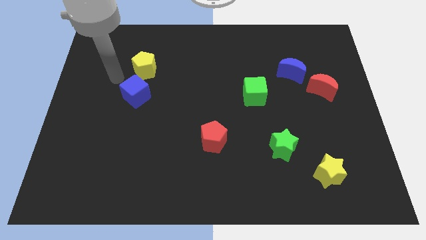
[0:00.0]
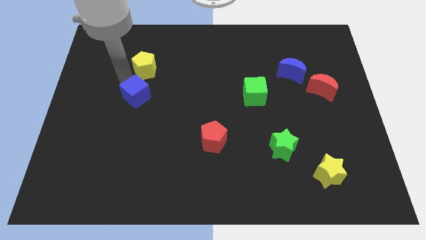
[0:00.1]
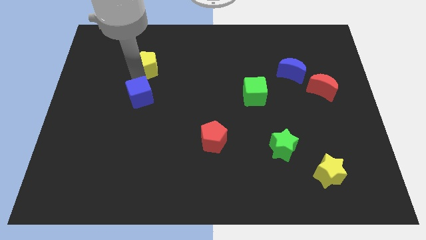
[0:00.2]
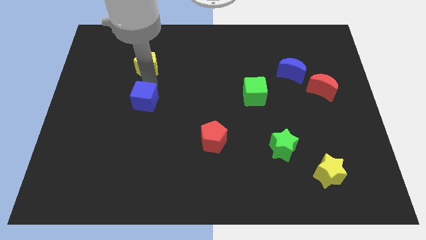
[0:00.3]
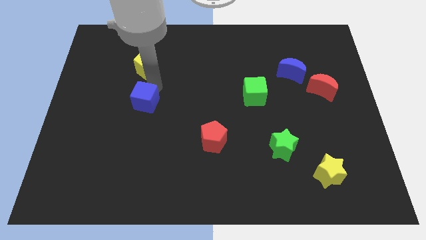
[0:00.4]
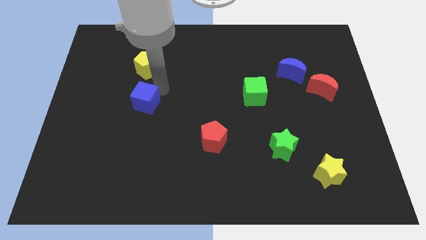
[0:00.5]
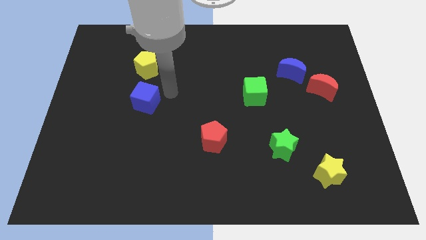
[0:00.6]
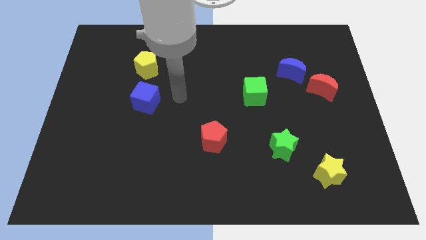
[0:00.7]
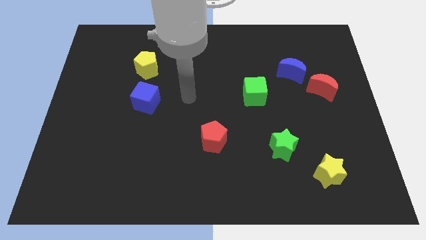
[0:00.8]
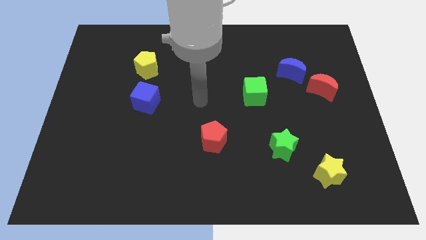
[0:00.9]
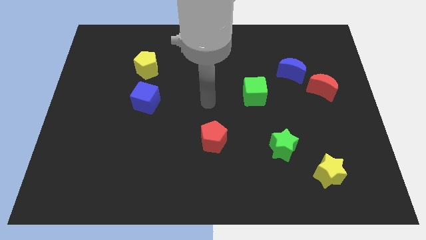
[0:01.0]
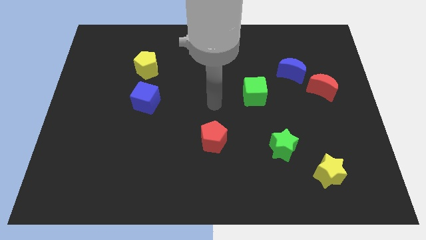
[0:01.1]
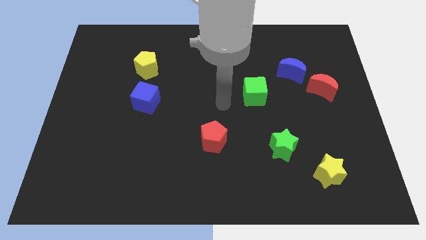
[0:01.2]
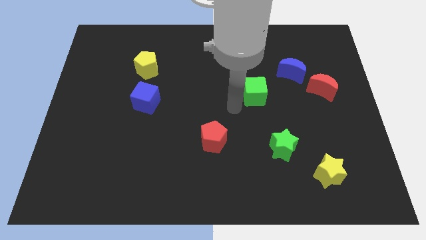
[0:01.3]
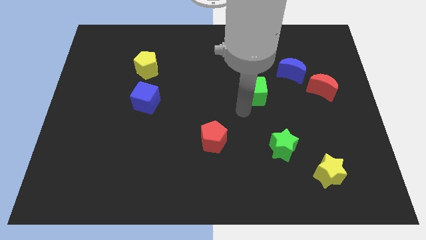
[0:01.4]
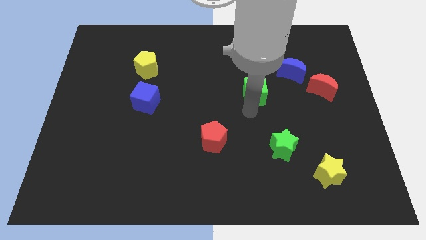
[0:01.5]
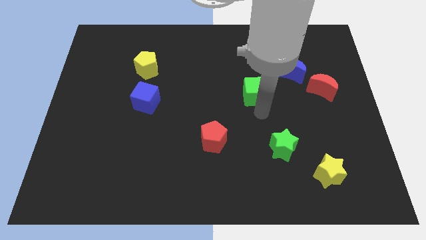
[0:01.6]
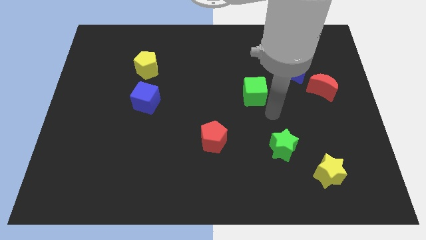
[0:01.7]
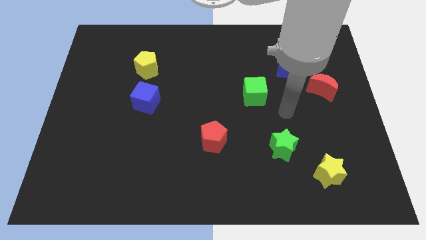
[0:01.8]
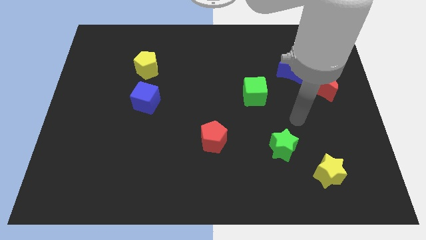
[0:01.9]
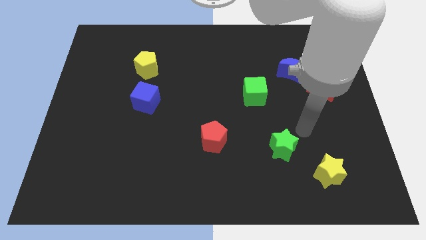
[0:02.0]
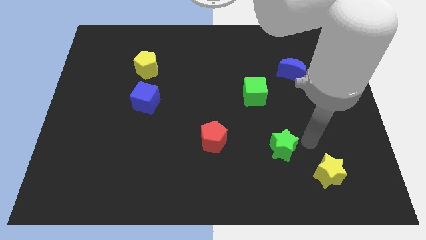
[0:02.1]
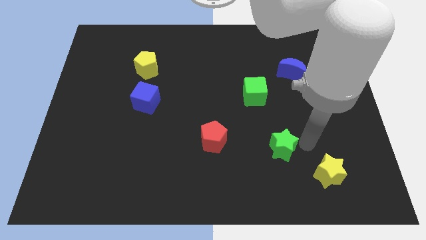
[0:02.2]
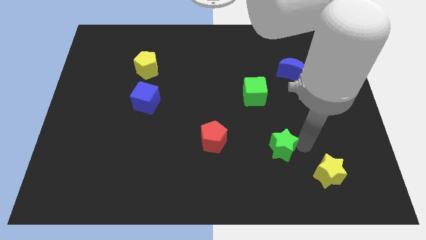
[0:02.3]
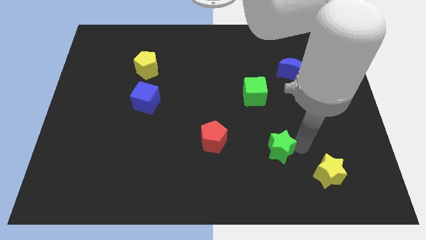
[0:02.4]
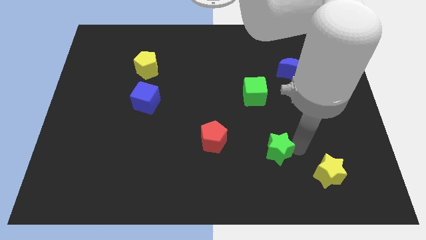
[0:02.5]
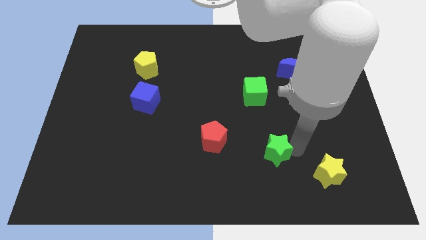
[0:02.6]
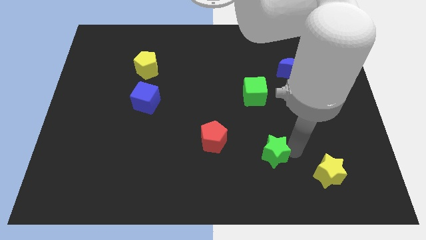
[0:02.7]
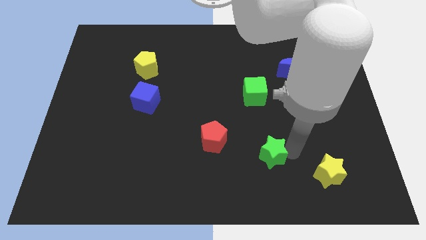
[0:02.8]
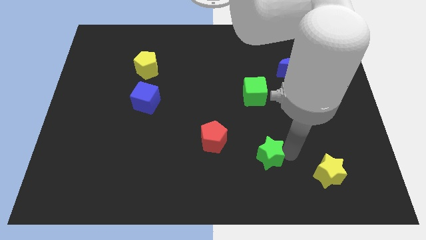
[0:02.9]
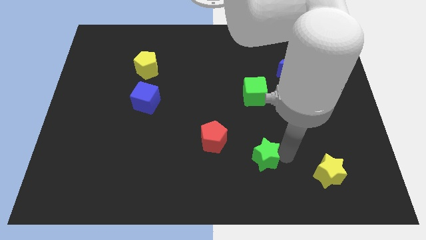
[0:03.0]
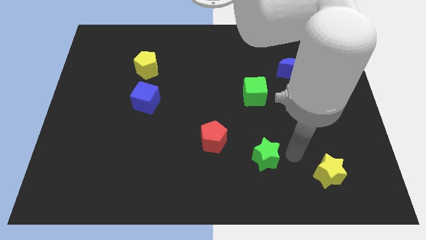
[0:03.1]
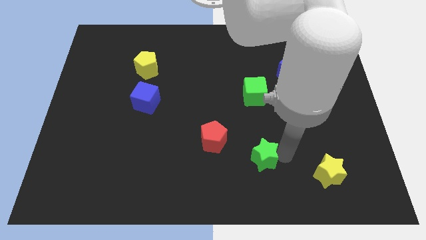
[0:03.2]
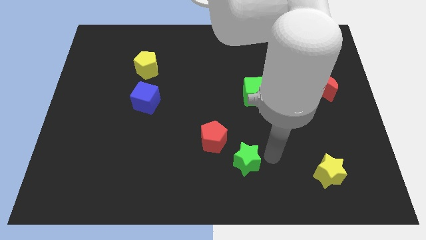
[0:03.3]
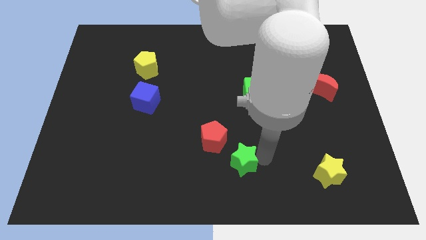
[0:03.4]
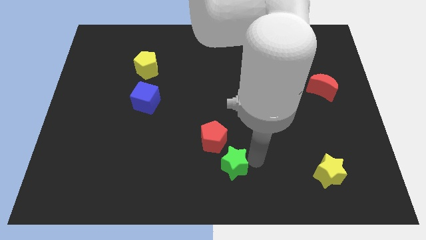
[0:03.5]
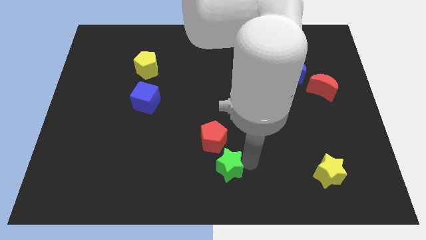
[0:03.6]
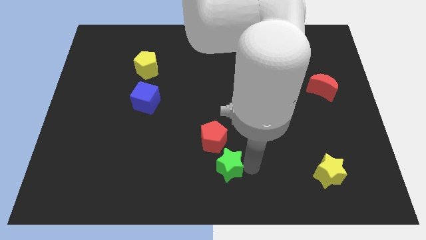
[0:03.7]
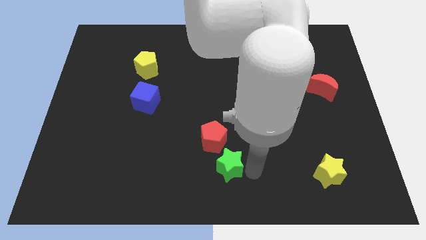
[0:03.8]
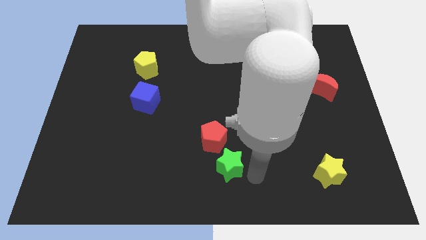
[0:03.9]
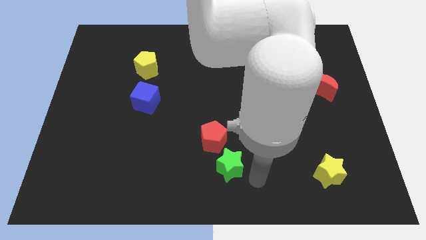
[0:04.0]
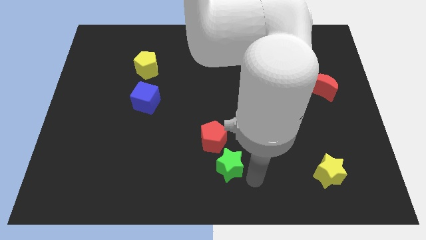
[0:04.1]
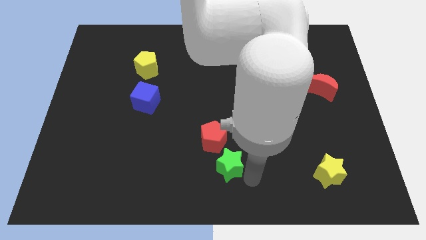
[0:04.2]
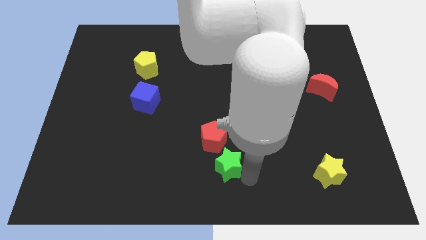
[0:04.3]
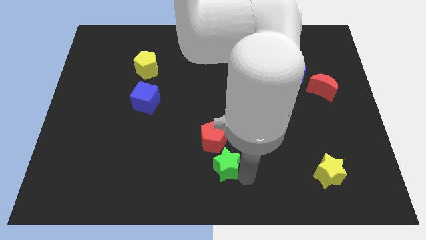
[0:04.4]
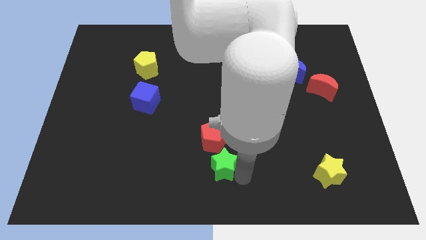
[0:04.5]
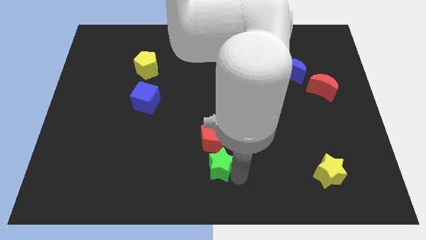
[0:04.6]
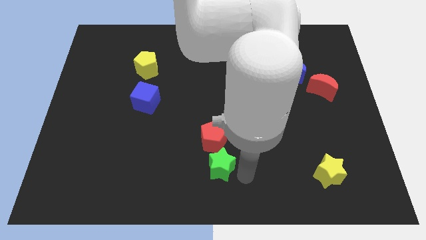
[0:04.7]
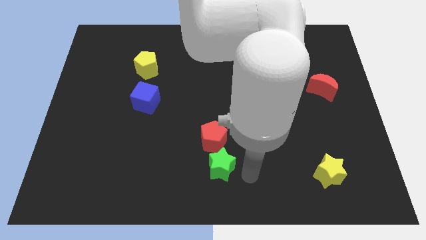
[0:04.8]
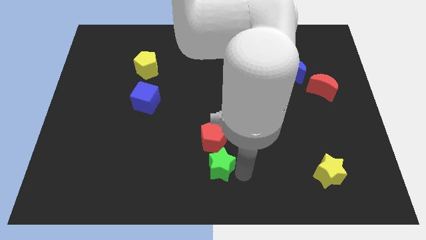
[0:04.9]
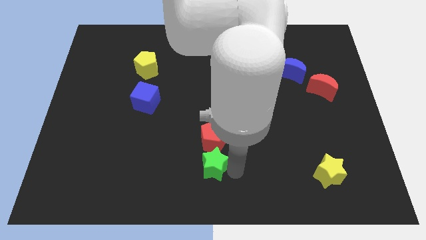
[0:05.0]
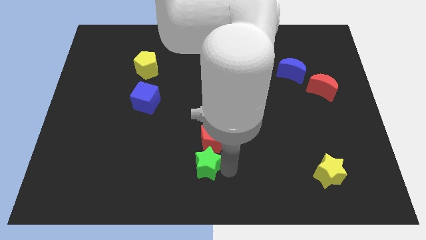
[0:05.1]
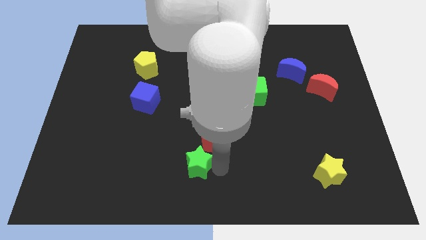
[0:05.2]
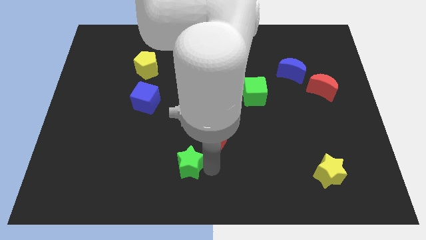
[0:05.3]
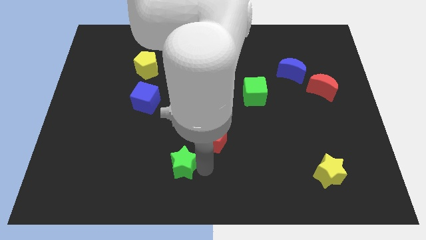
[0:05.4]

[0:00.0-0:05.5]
push the green star left

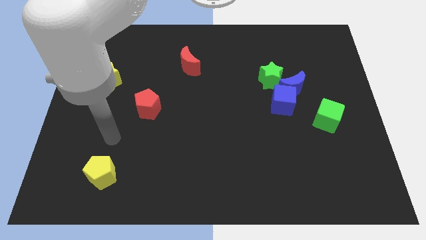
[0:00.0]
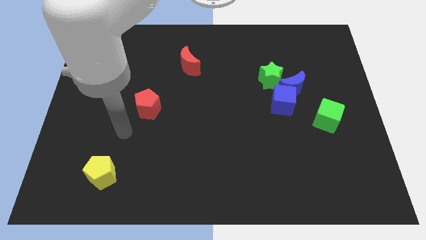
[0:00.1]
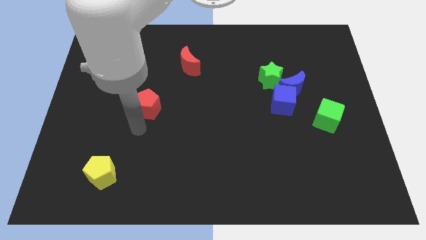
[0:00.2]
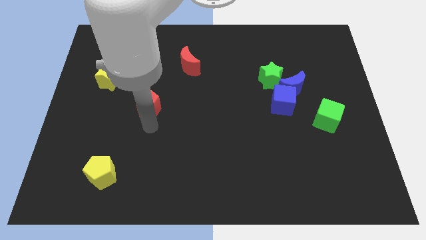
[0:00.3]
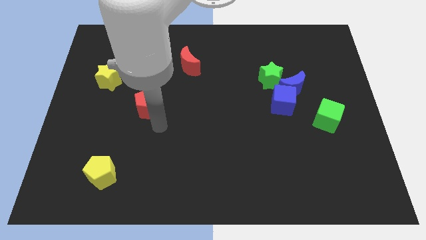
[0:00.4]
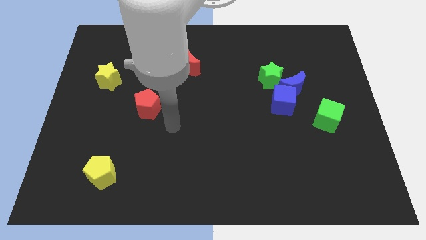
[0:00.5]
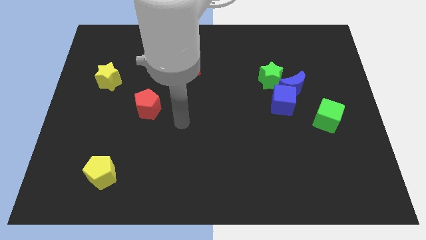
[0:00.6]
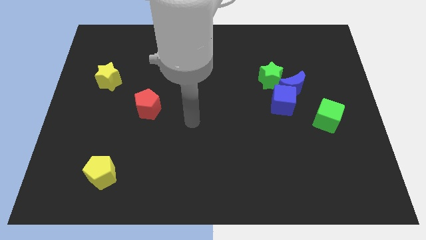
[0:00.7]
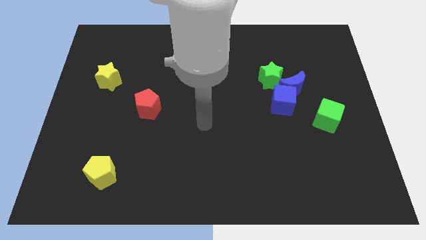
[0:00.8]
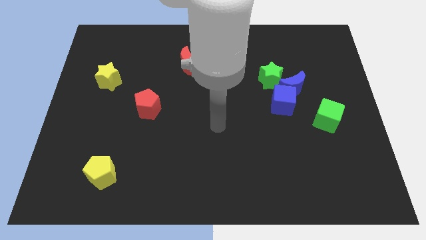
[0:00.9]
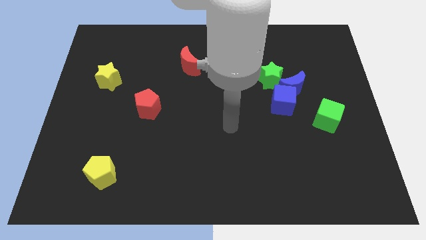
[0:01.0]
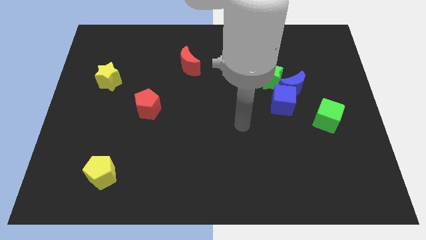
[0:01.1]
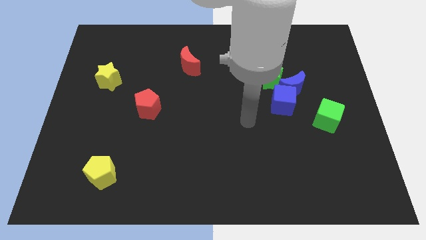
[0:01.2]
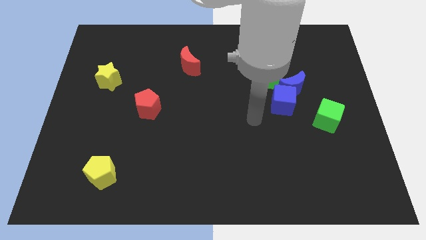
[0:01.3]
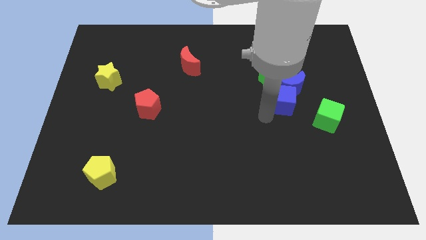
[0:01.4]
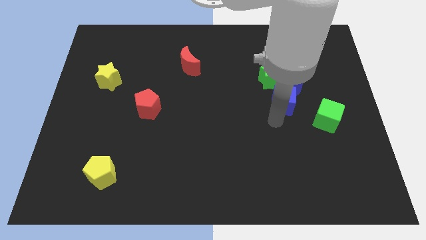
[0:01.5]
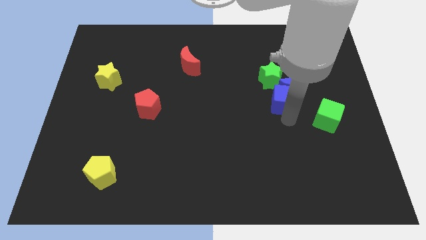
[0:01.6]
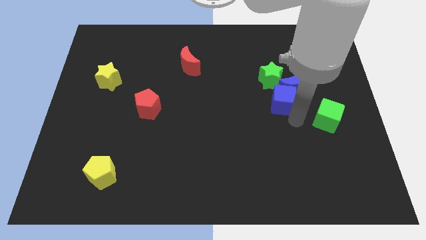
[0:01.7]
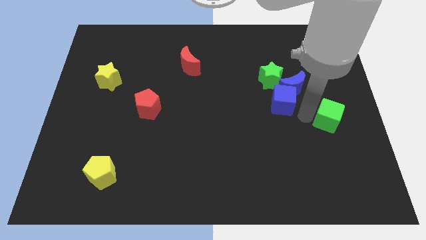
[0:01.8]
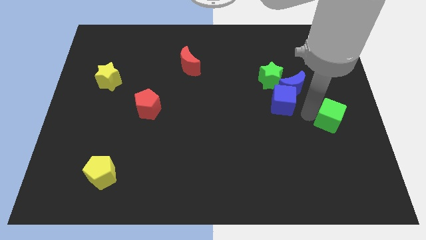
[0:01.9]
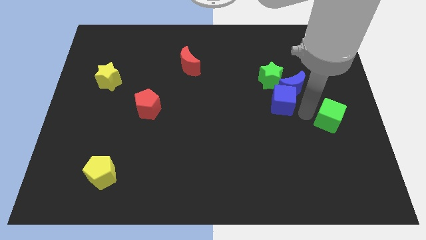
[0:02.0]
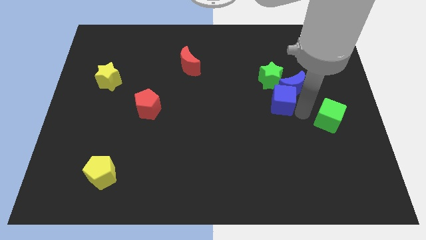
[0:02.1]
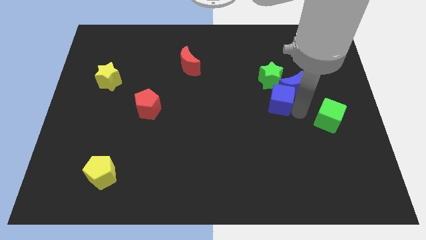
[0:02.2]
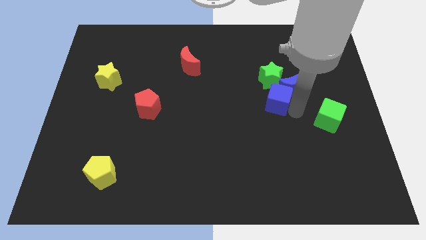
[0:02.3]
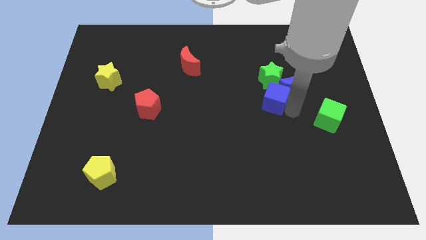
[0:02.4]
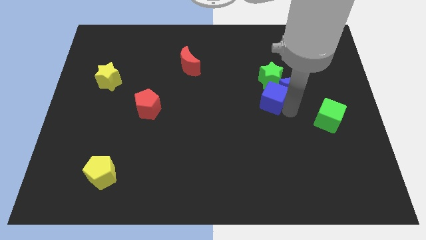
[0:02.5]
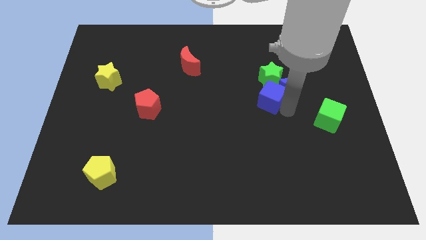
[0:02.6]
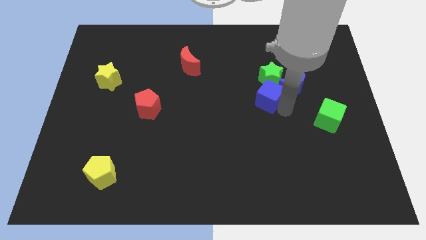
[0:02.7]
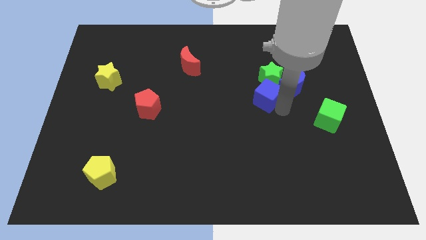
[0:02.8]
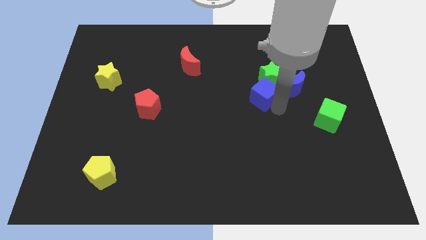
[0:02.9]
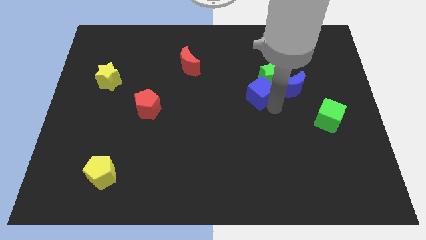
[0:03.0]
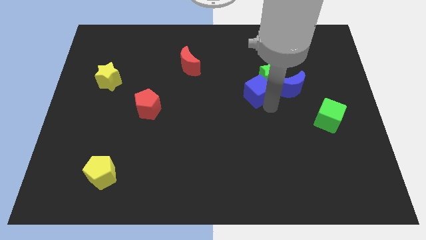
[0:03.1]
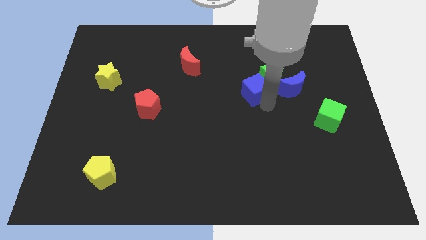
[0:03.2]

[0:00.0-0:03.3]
slide the blue cube diagonally upwards and left a little
